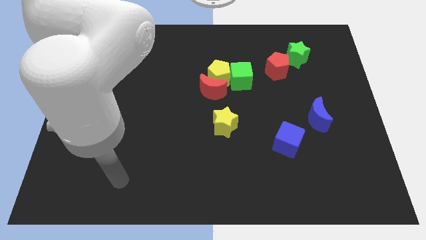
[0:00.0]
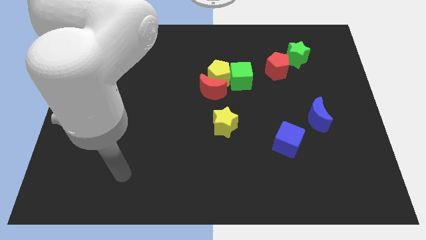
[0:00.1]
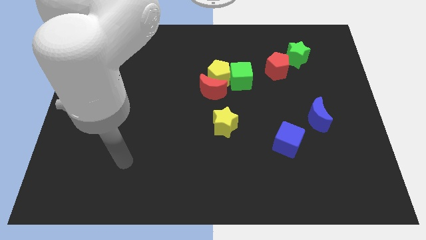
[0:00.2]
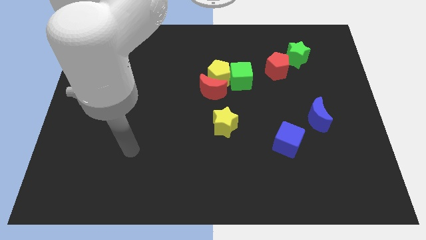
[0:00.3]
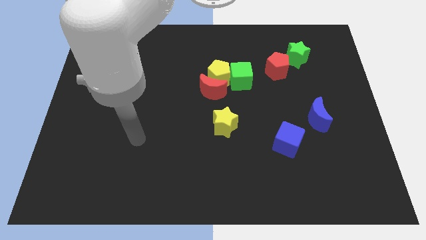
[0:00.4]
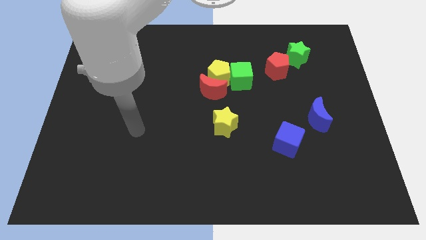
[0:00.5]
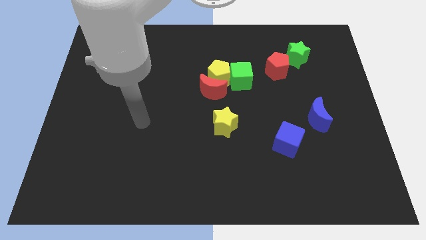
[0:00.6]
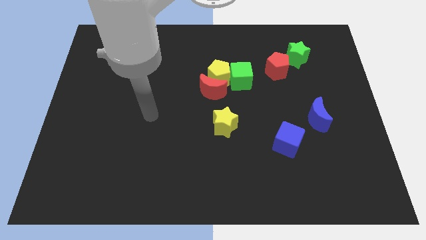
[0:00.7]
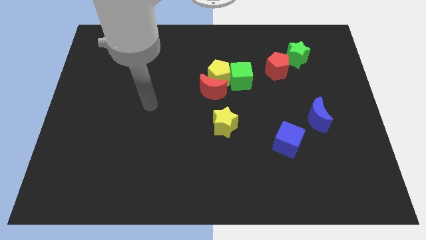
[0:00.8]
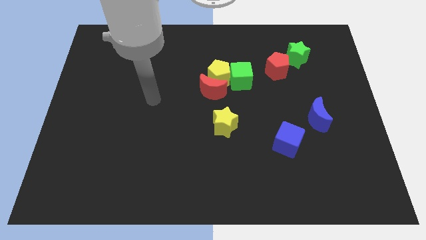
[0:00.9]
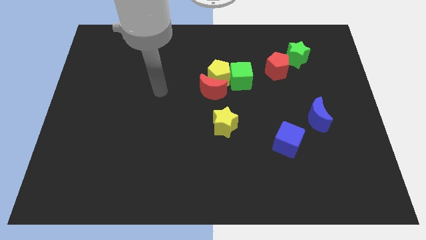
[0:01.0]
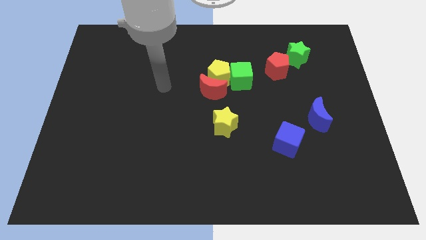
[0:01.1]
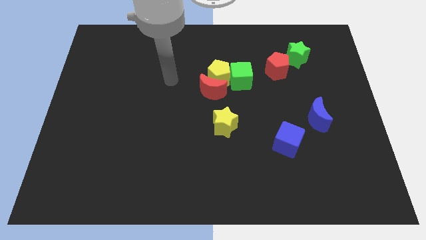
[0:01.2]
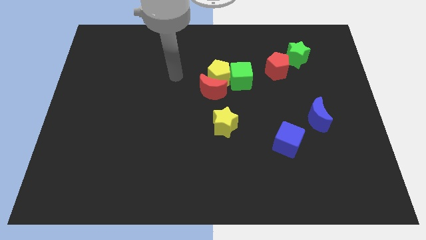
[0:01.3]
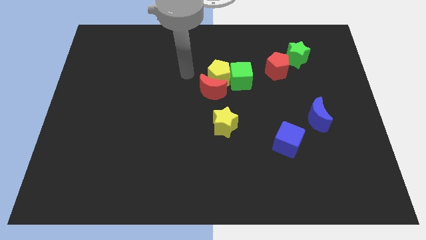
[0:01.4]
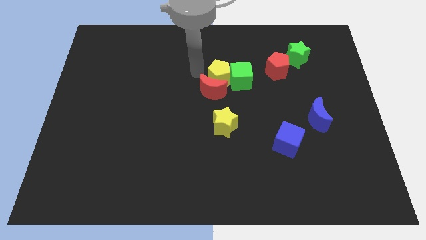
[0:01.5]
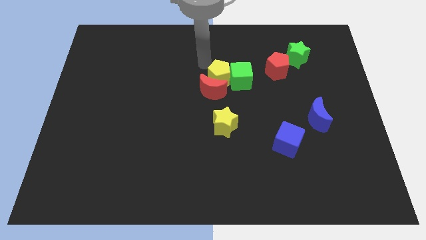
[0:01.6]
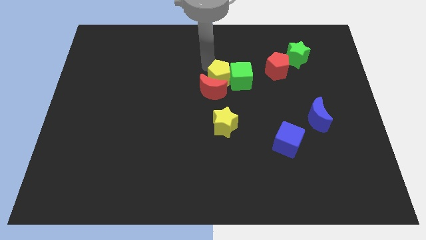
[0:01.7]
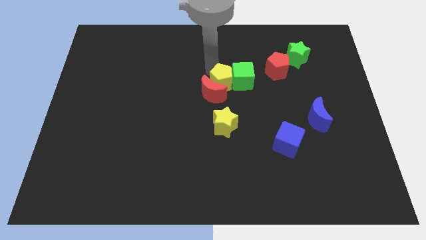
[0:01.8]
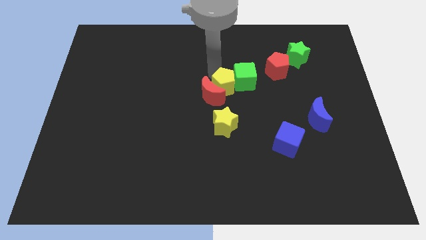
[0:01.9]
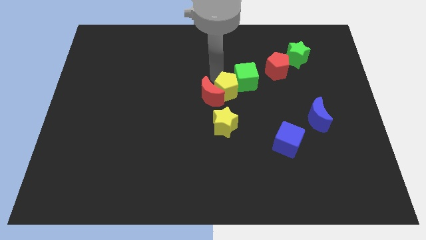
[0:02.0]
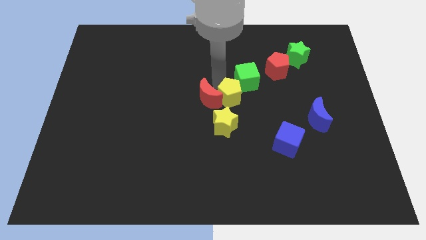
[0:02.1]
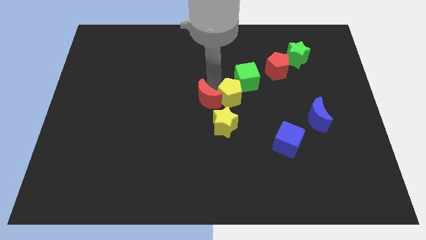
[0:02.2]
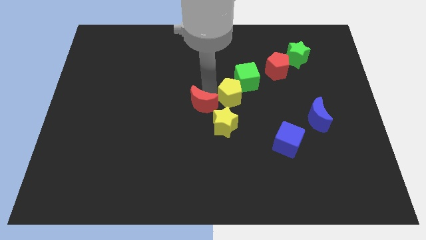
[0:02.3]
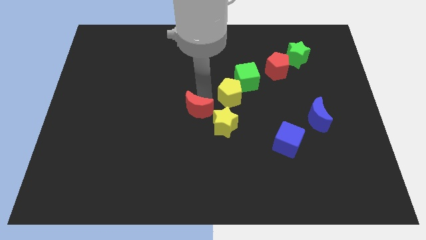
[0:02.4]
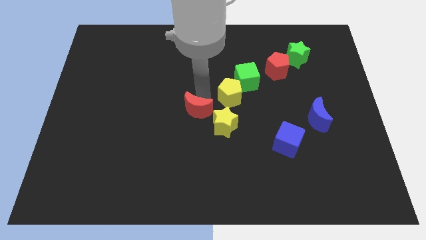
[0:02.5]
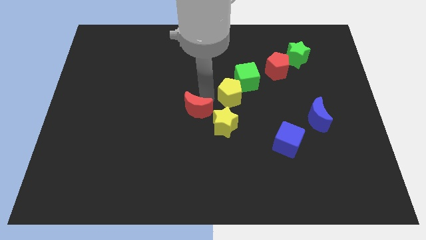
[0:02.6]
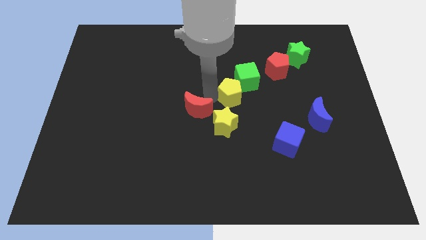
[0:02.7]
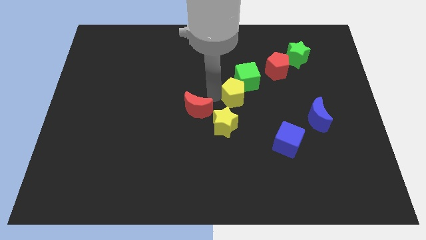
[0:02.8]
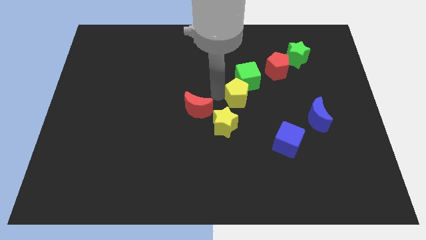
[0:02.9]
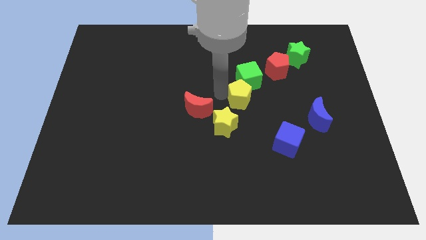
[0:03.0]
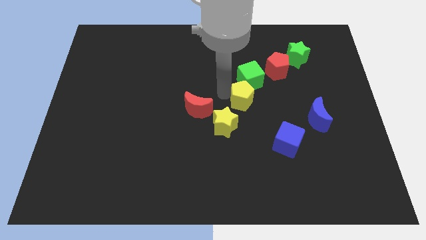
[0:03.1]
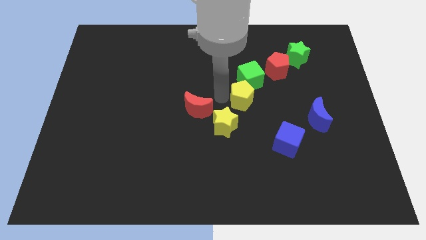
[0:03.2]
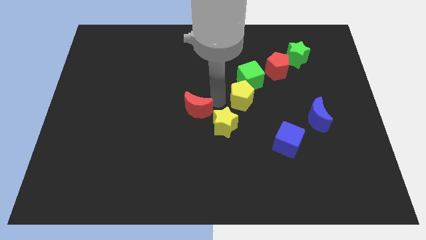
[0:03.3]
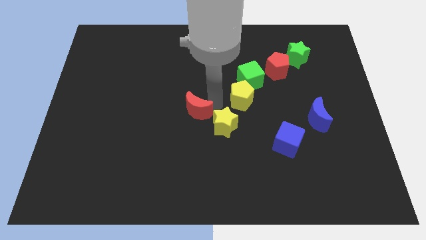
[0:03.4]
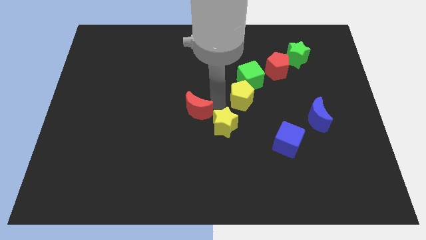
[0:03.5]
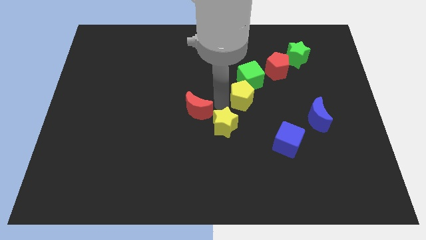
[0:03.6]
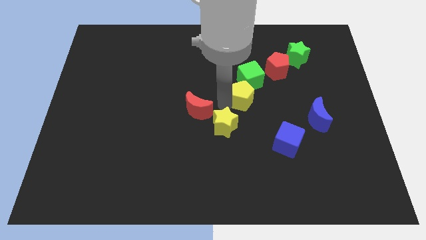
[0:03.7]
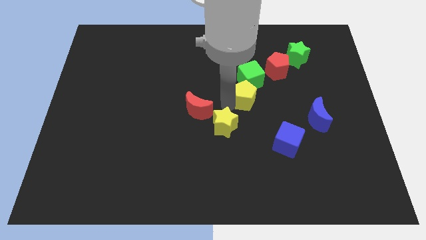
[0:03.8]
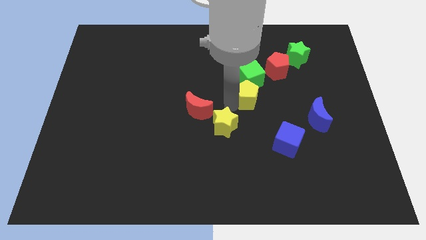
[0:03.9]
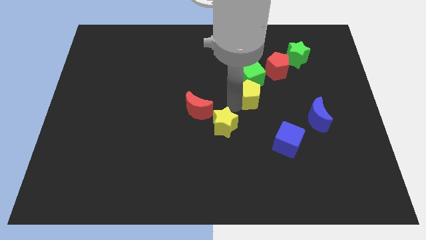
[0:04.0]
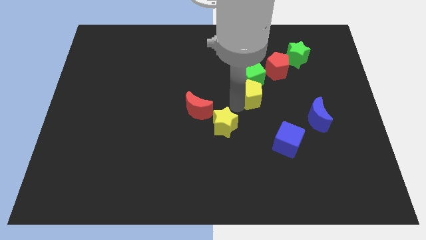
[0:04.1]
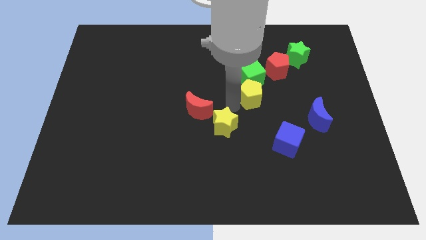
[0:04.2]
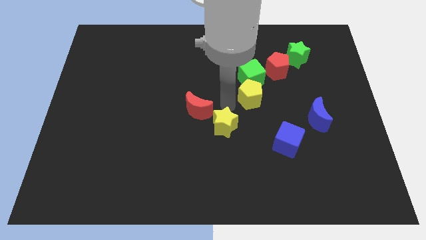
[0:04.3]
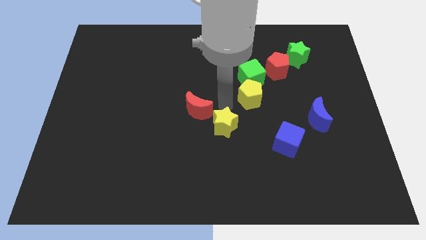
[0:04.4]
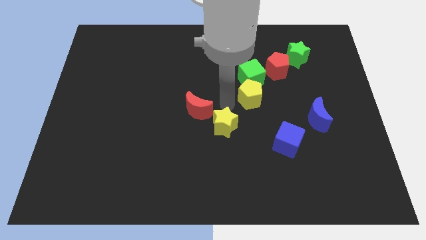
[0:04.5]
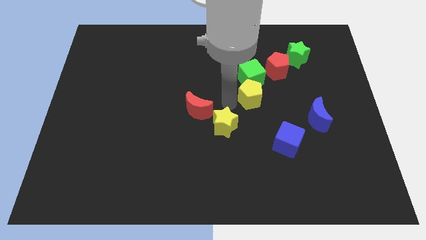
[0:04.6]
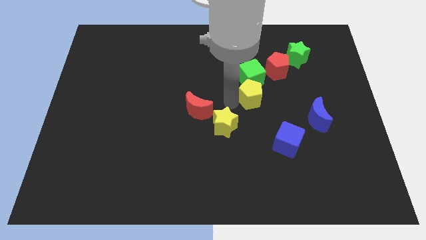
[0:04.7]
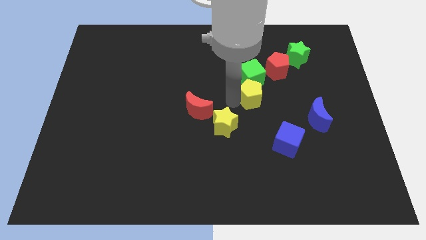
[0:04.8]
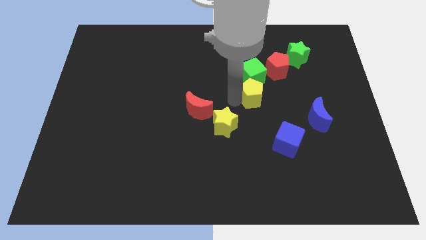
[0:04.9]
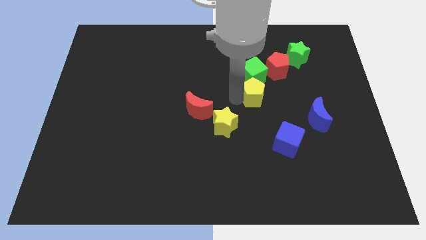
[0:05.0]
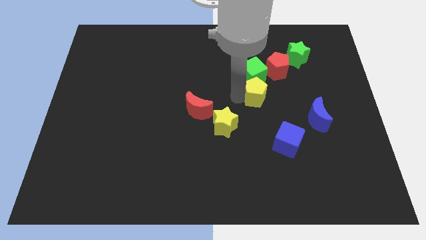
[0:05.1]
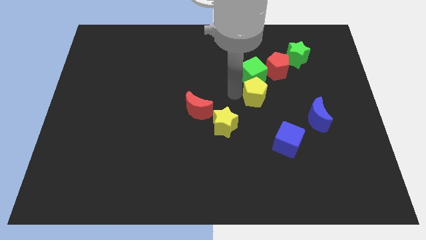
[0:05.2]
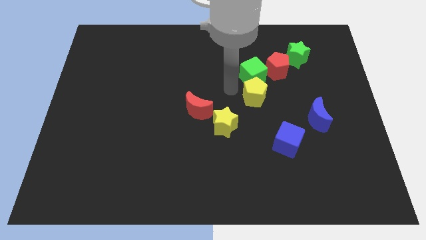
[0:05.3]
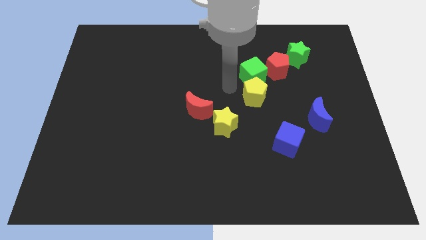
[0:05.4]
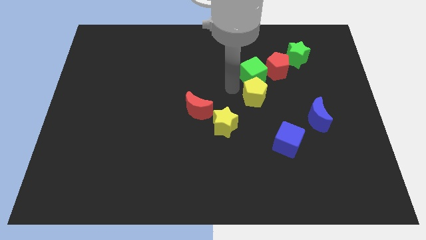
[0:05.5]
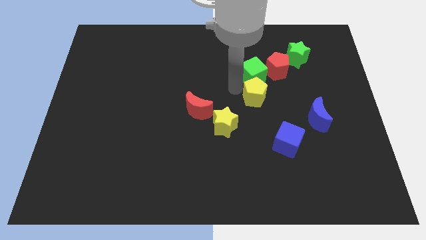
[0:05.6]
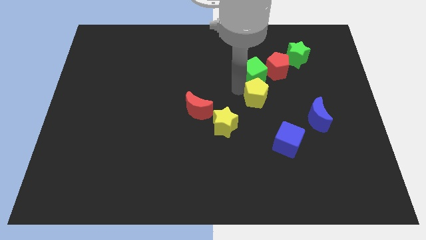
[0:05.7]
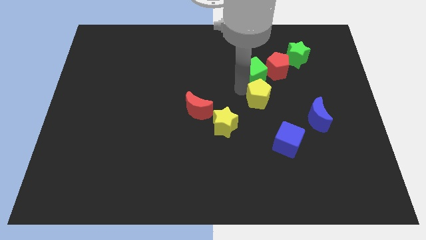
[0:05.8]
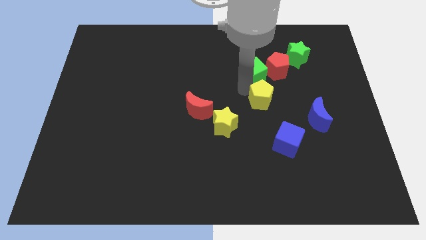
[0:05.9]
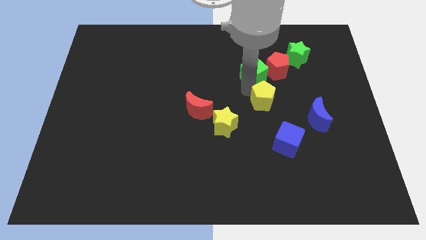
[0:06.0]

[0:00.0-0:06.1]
slide the yellow pentagon above the blue cube
